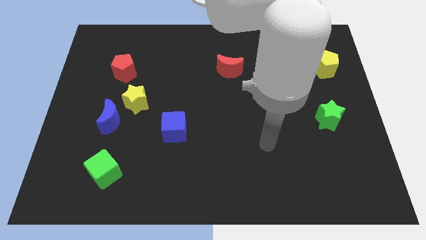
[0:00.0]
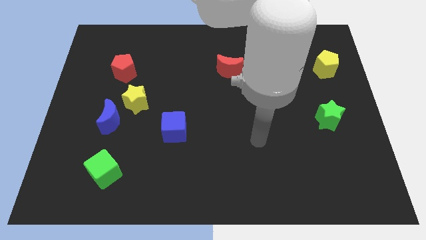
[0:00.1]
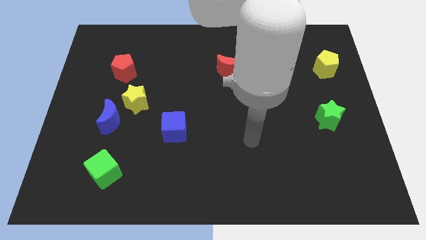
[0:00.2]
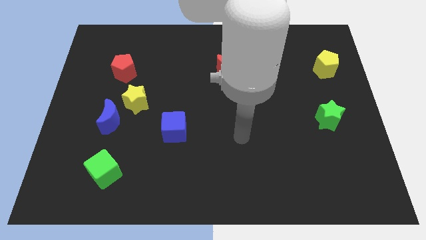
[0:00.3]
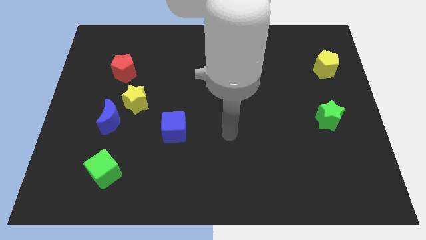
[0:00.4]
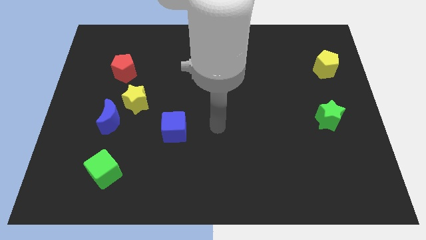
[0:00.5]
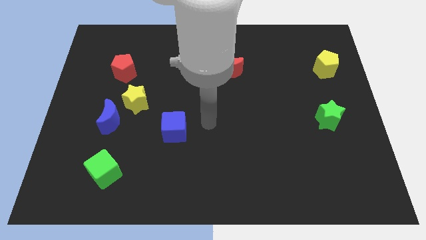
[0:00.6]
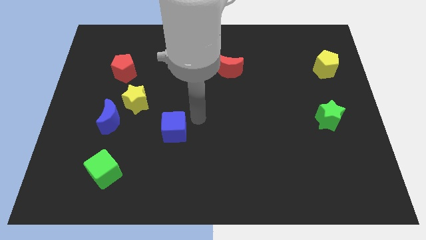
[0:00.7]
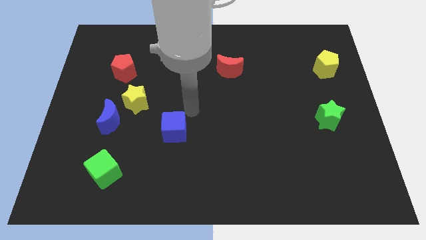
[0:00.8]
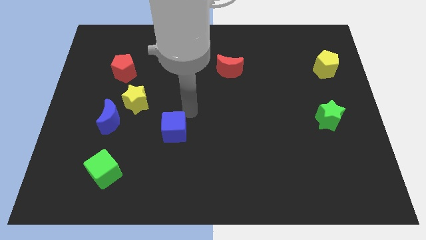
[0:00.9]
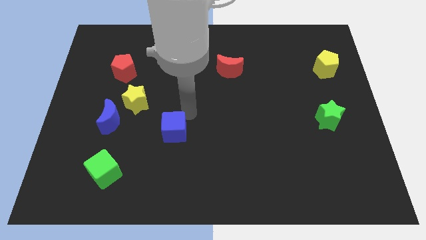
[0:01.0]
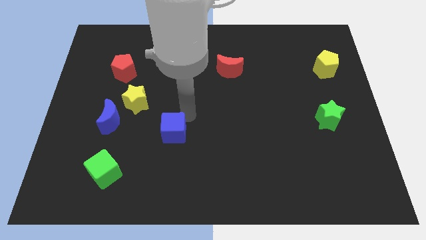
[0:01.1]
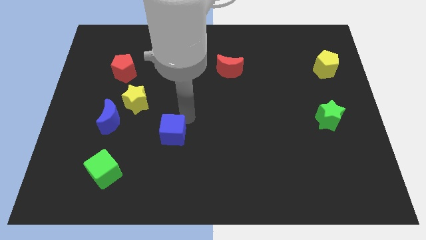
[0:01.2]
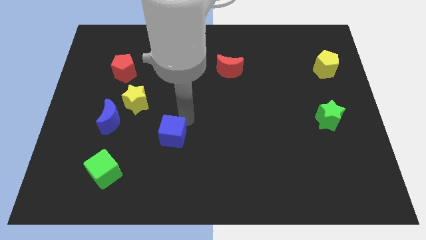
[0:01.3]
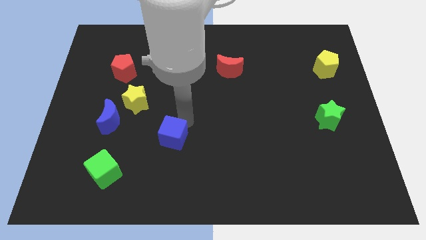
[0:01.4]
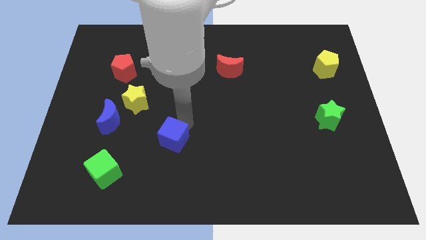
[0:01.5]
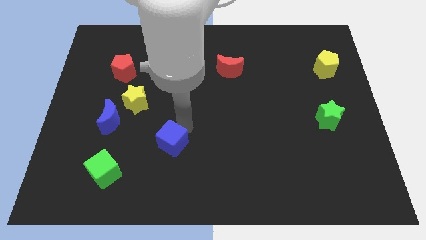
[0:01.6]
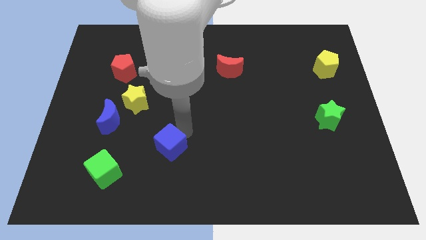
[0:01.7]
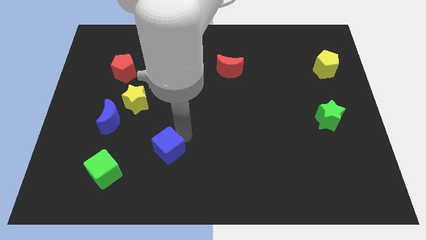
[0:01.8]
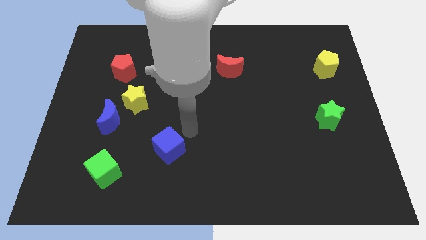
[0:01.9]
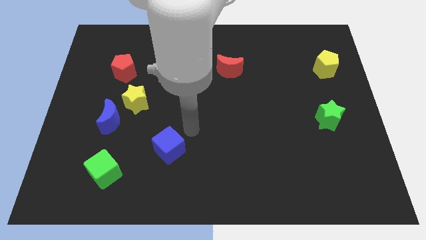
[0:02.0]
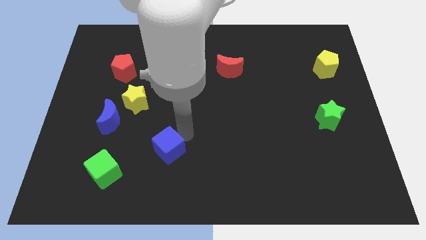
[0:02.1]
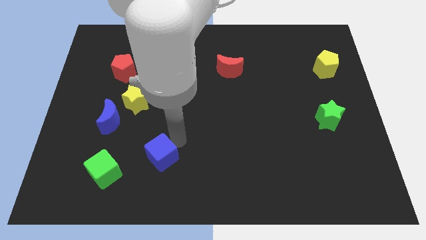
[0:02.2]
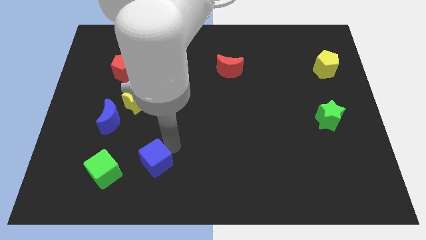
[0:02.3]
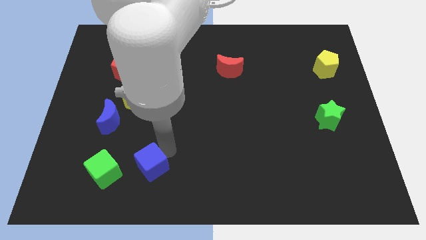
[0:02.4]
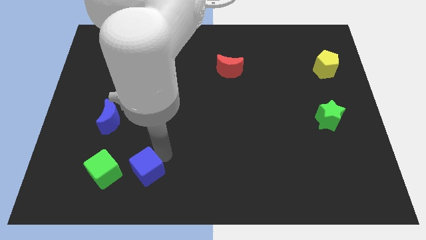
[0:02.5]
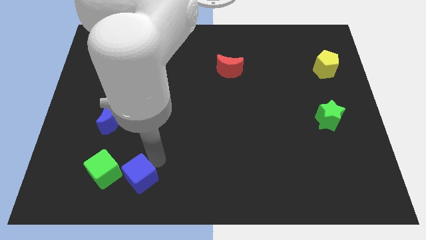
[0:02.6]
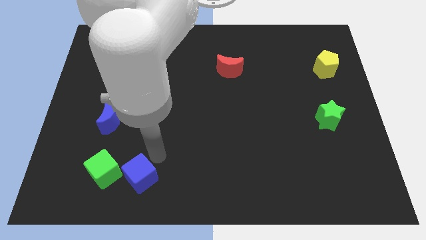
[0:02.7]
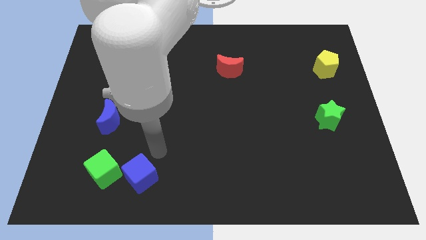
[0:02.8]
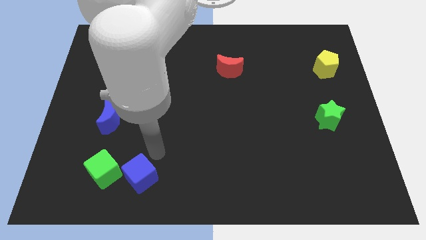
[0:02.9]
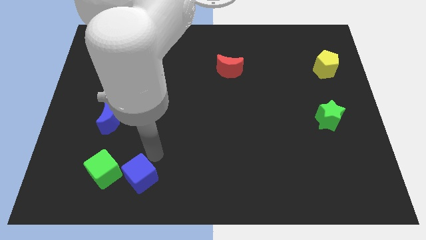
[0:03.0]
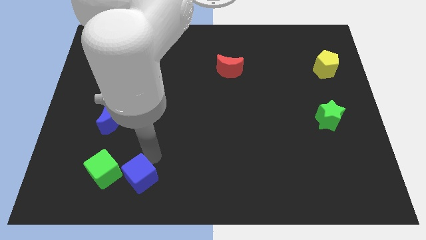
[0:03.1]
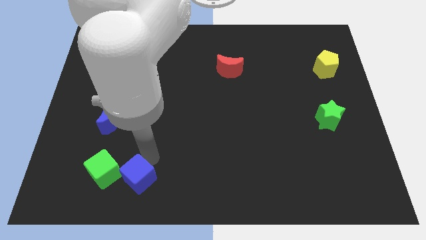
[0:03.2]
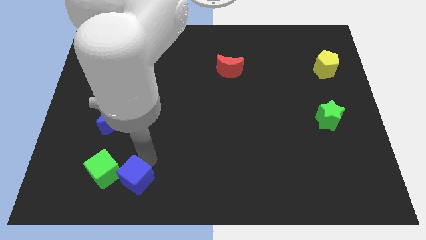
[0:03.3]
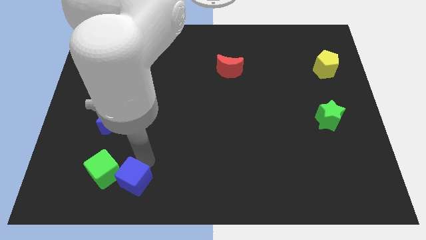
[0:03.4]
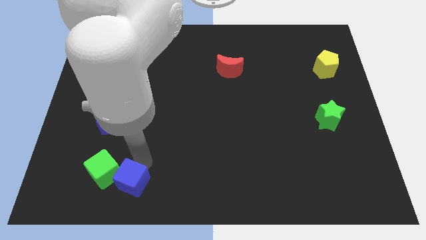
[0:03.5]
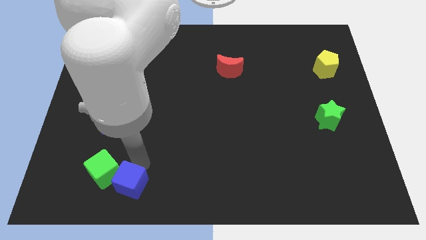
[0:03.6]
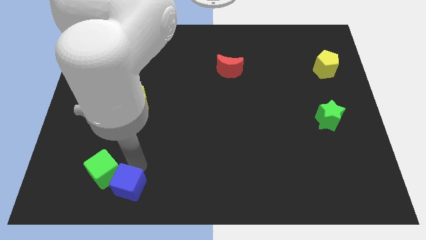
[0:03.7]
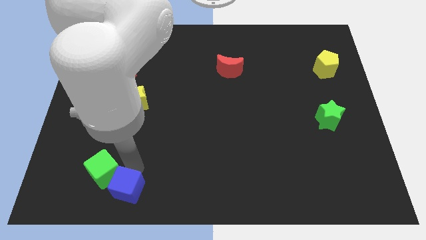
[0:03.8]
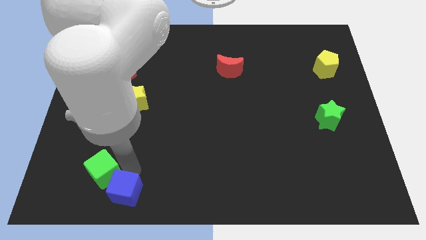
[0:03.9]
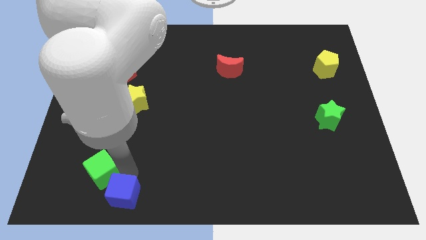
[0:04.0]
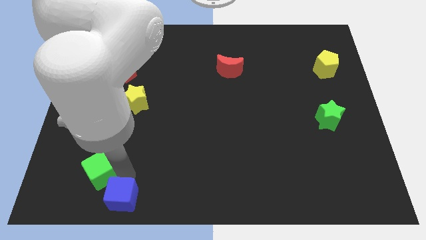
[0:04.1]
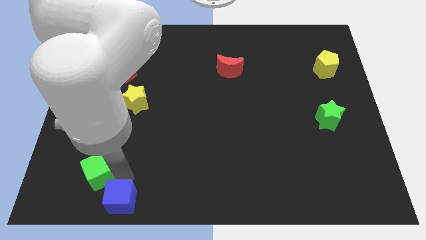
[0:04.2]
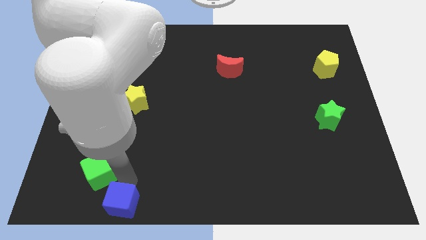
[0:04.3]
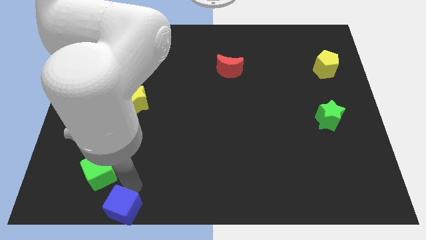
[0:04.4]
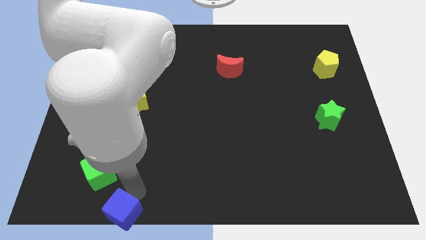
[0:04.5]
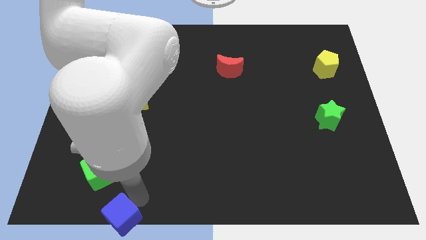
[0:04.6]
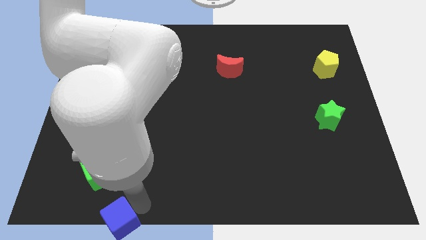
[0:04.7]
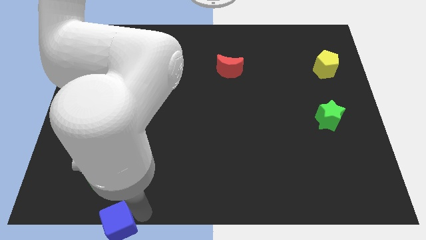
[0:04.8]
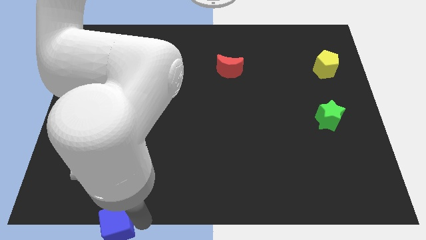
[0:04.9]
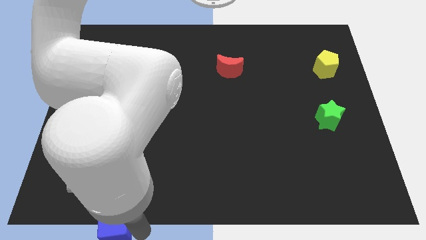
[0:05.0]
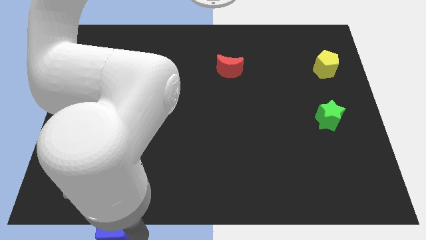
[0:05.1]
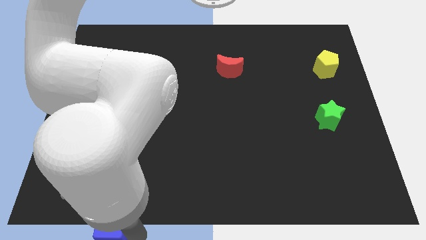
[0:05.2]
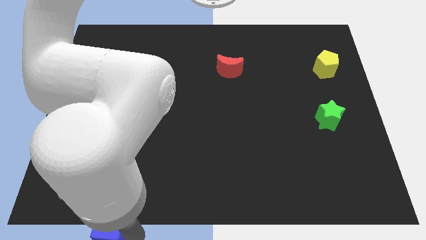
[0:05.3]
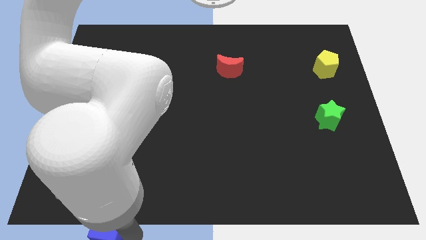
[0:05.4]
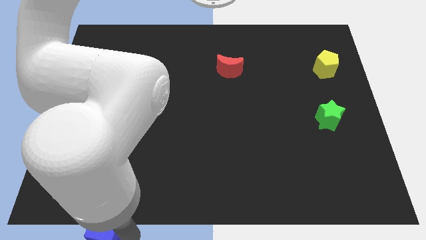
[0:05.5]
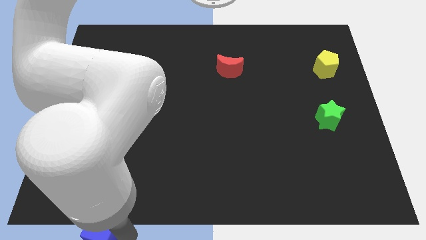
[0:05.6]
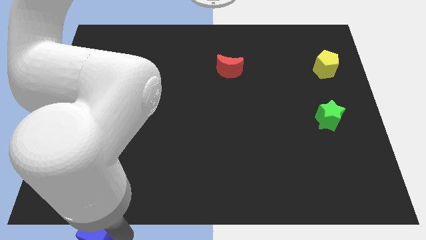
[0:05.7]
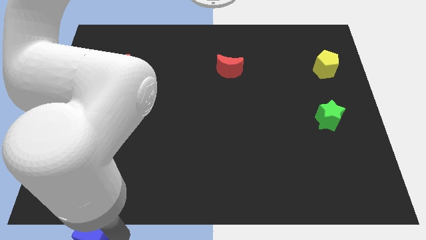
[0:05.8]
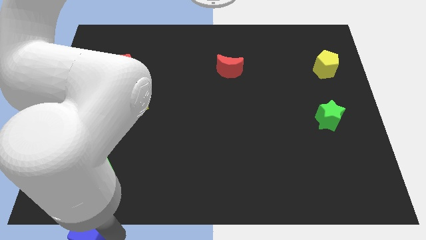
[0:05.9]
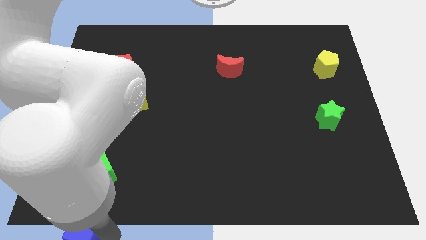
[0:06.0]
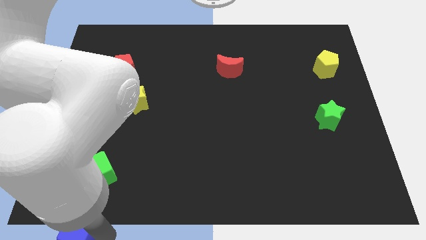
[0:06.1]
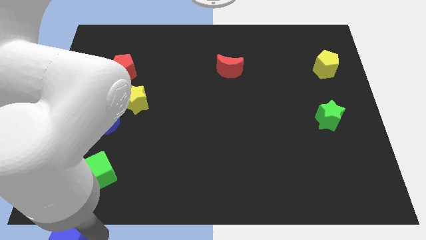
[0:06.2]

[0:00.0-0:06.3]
slide the blue cube to the lower left corner
